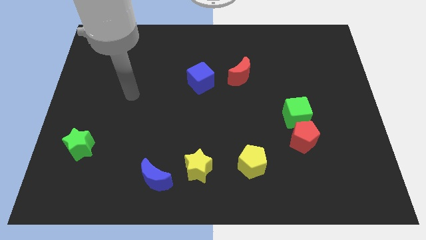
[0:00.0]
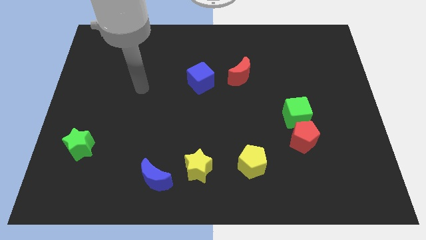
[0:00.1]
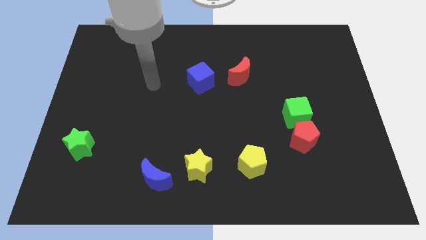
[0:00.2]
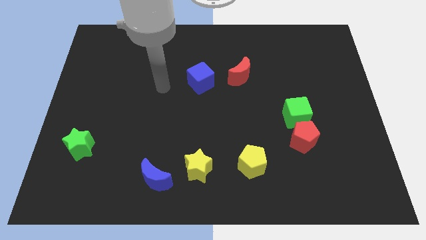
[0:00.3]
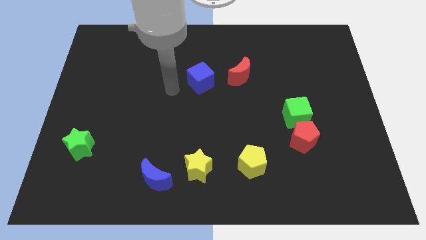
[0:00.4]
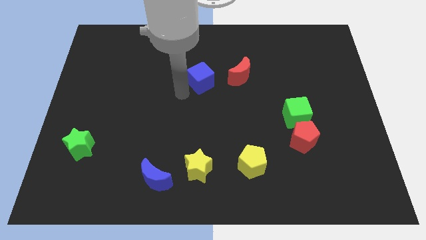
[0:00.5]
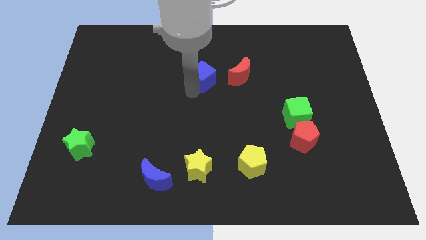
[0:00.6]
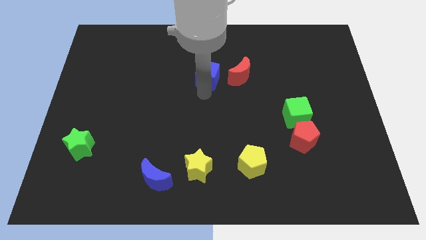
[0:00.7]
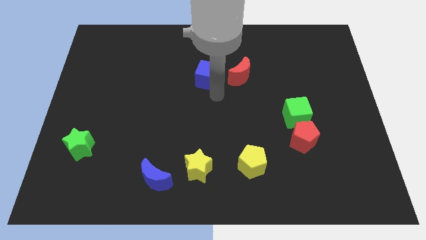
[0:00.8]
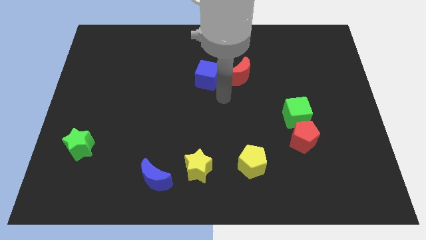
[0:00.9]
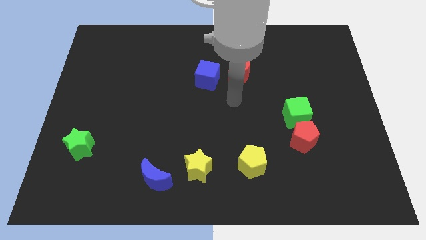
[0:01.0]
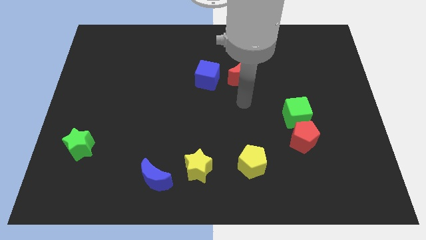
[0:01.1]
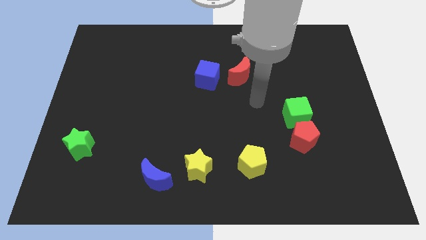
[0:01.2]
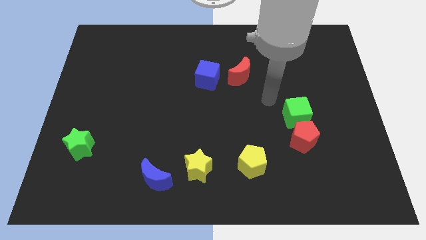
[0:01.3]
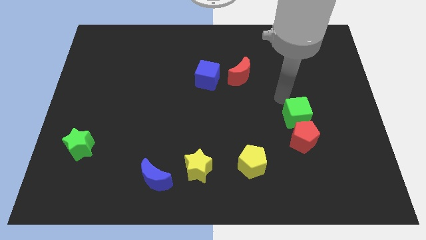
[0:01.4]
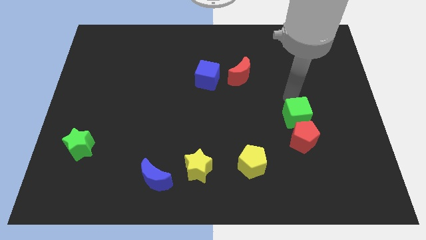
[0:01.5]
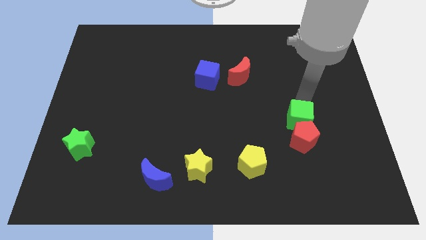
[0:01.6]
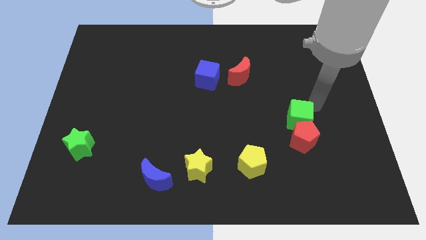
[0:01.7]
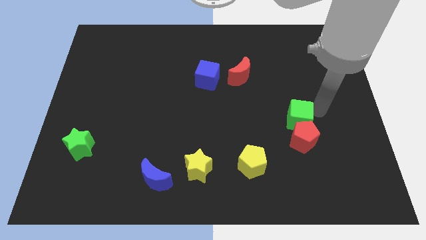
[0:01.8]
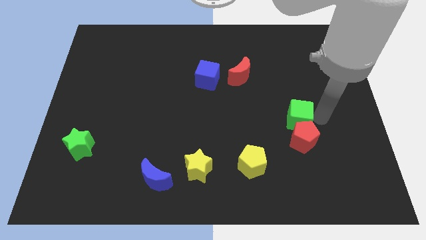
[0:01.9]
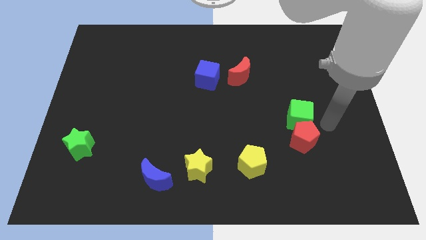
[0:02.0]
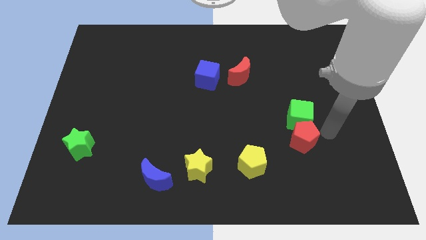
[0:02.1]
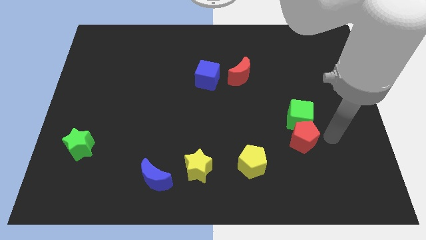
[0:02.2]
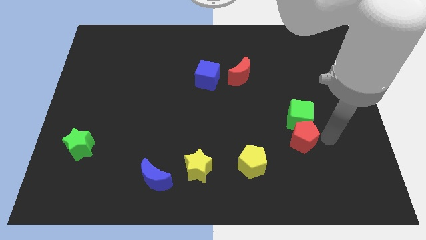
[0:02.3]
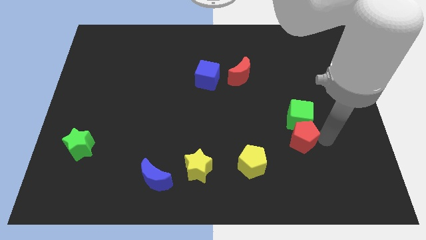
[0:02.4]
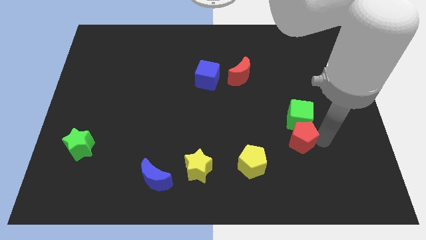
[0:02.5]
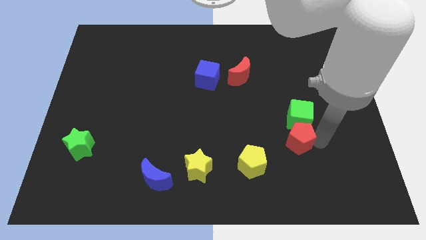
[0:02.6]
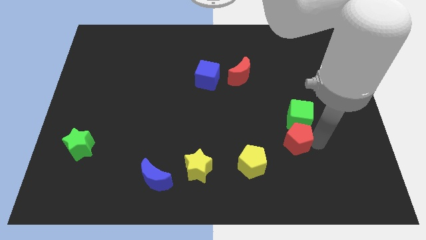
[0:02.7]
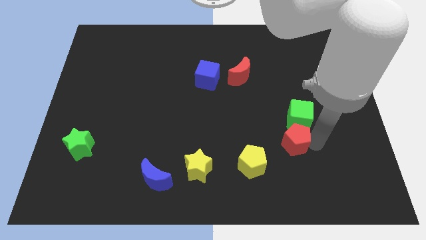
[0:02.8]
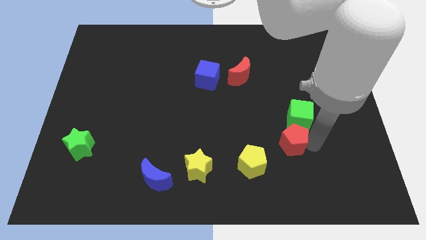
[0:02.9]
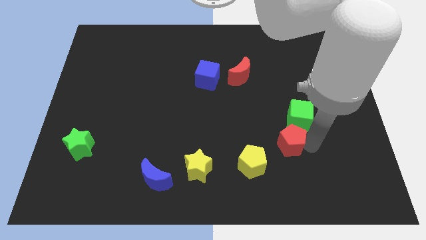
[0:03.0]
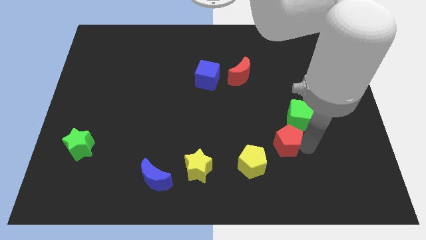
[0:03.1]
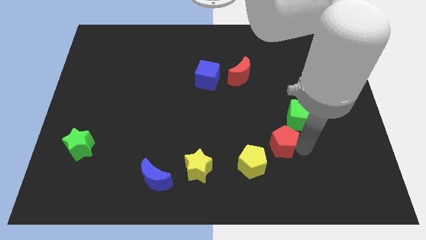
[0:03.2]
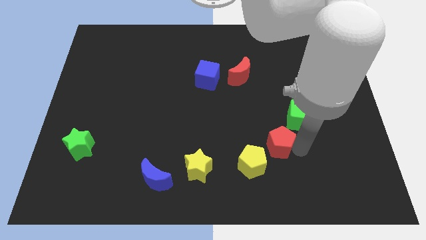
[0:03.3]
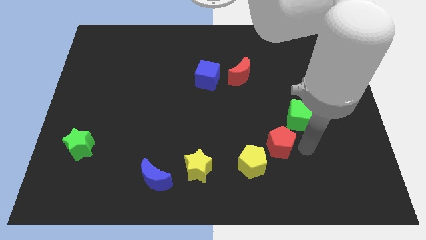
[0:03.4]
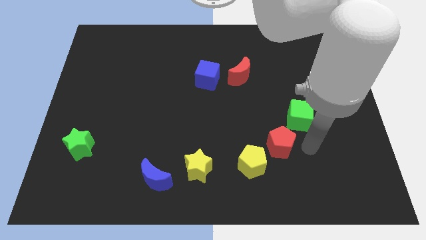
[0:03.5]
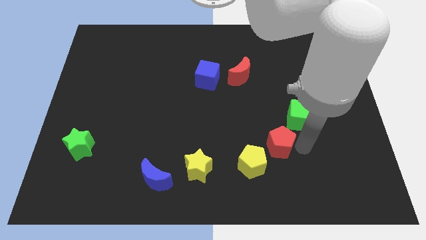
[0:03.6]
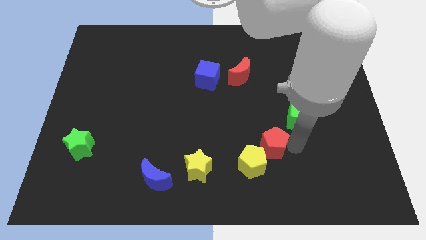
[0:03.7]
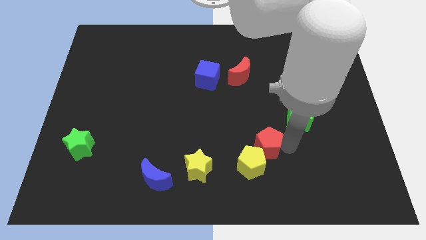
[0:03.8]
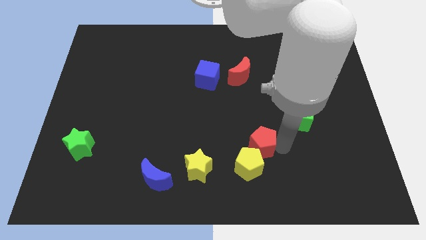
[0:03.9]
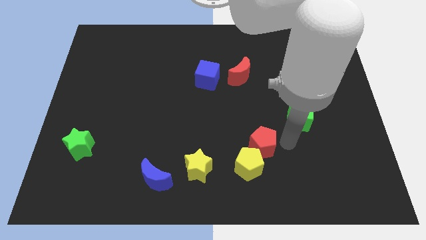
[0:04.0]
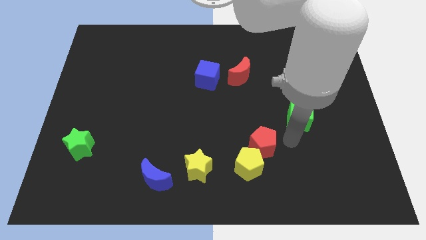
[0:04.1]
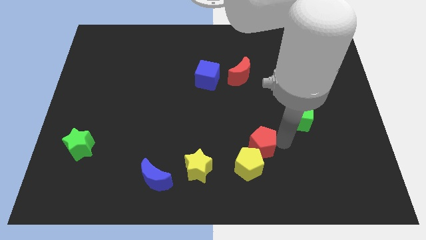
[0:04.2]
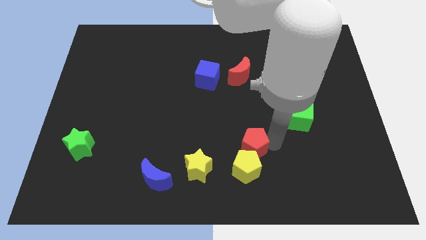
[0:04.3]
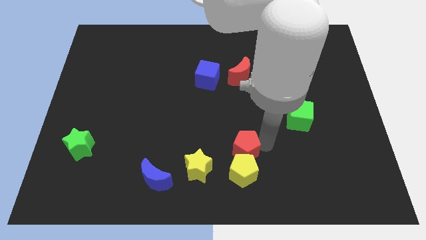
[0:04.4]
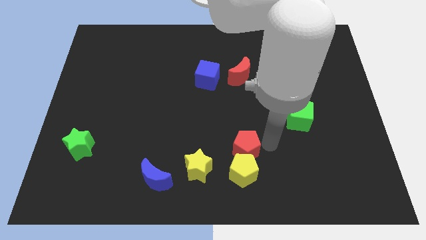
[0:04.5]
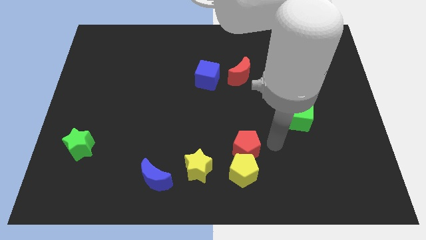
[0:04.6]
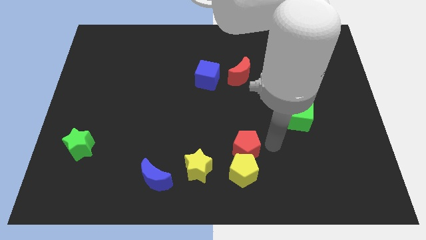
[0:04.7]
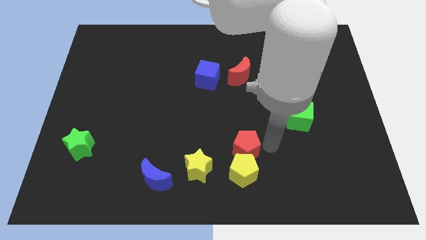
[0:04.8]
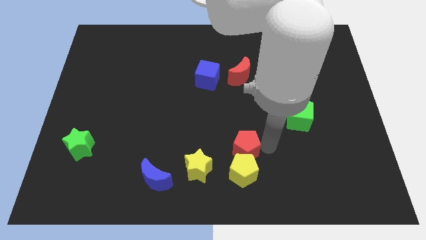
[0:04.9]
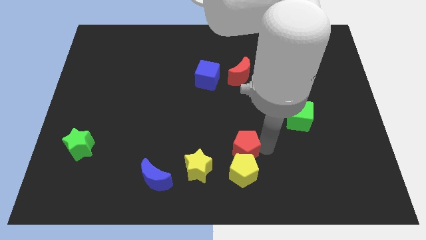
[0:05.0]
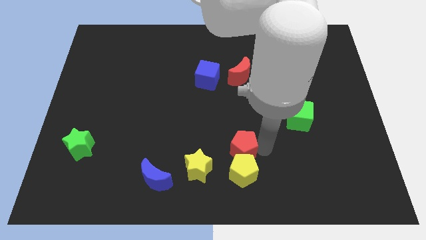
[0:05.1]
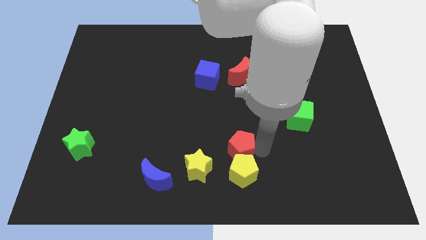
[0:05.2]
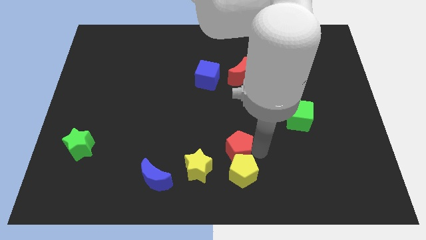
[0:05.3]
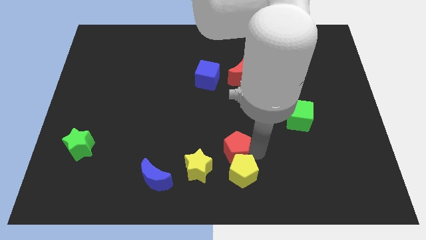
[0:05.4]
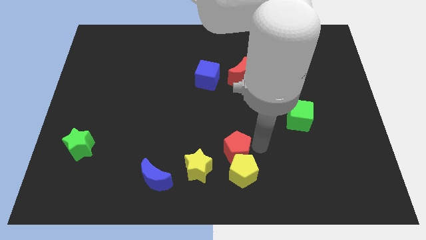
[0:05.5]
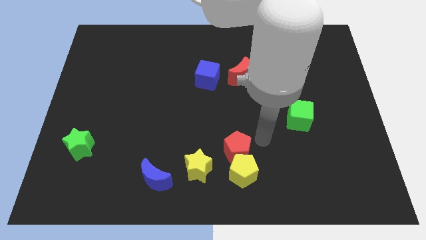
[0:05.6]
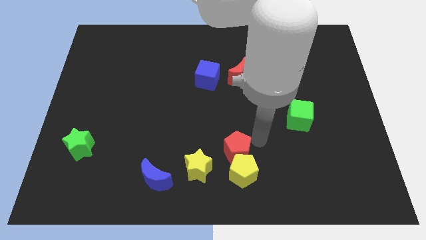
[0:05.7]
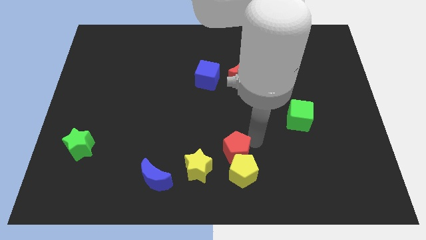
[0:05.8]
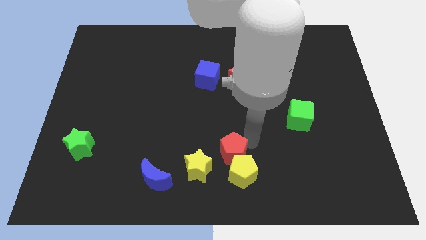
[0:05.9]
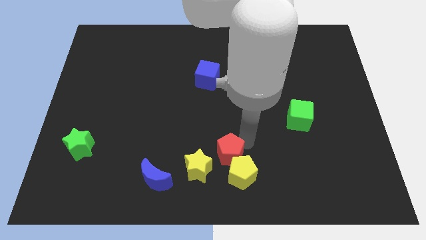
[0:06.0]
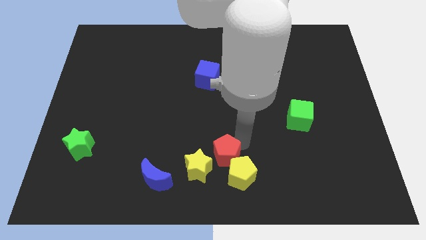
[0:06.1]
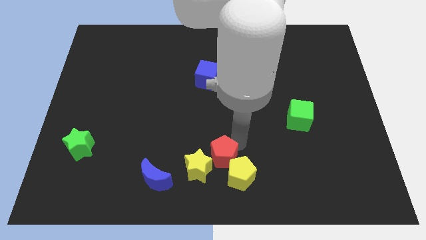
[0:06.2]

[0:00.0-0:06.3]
push the red pentagon next to the yellow star

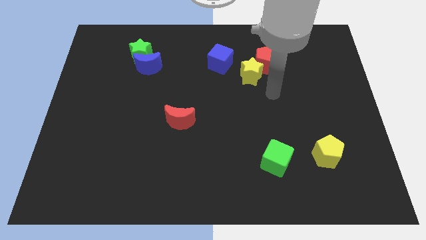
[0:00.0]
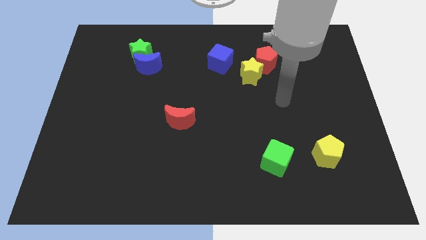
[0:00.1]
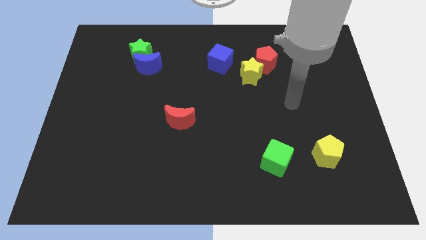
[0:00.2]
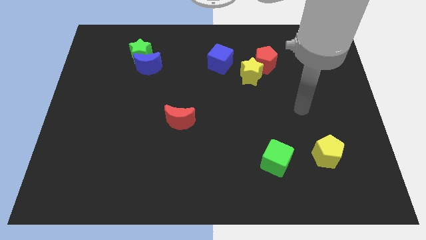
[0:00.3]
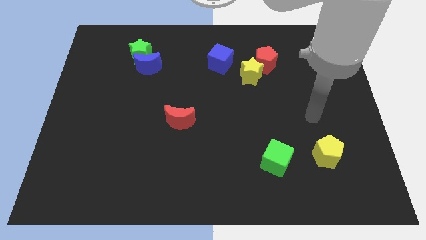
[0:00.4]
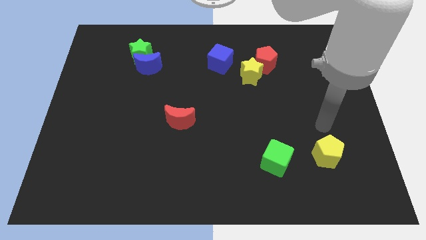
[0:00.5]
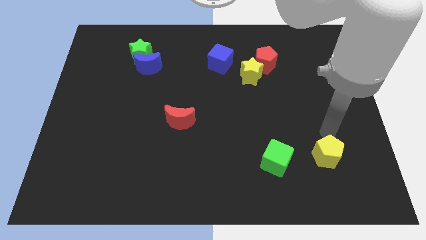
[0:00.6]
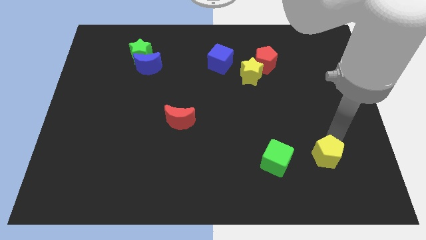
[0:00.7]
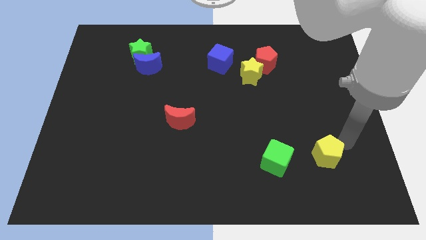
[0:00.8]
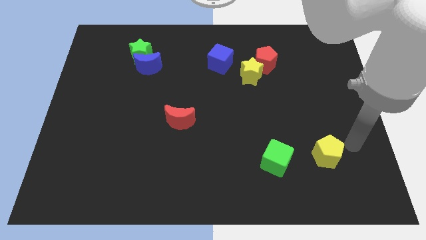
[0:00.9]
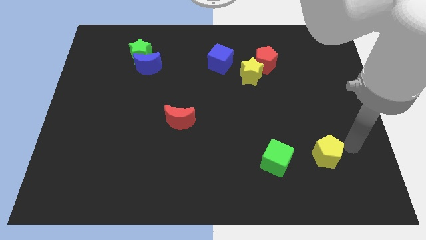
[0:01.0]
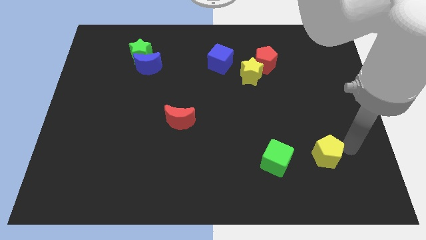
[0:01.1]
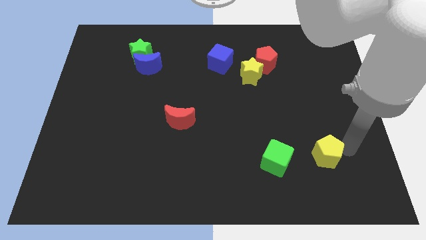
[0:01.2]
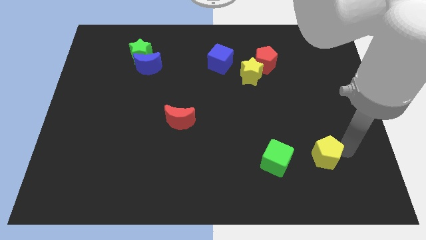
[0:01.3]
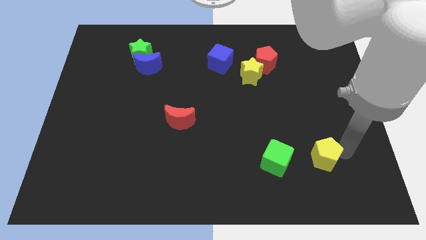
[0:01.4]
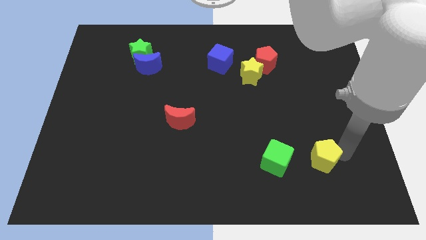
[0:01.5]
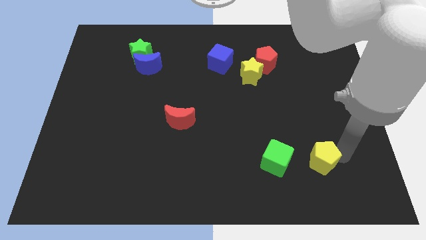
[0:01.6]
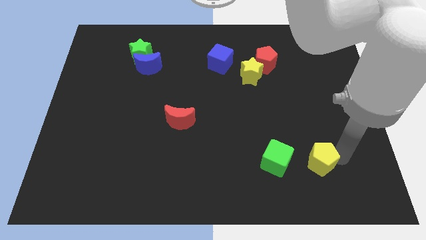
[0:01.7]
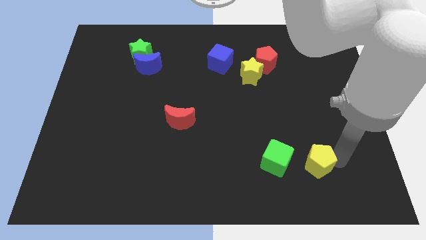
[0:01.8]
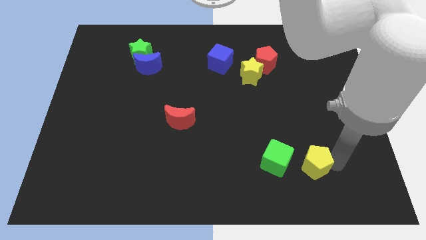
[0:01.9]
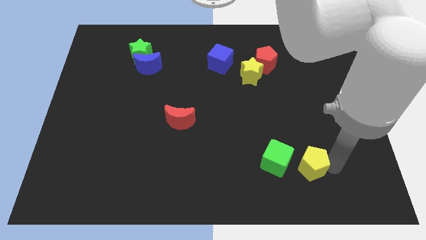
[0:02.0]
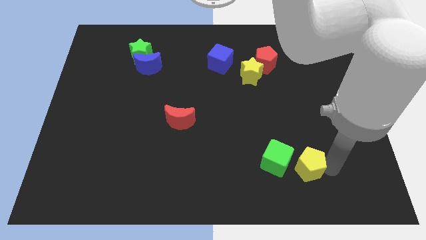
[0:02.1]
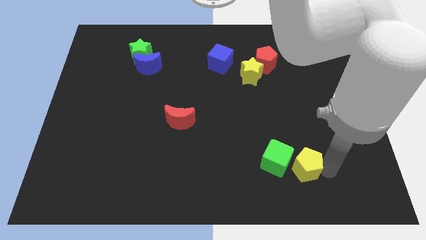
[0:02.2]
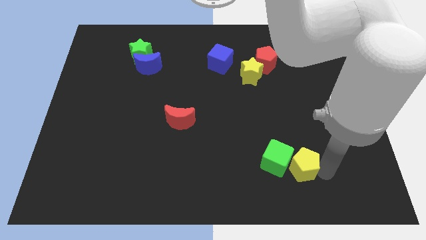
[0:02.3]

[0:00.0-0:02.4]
slide the yellow pentagon close to the green cube
